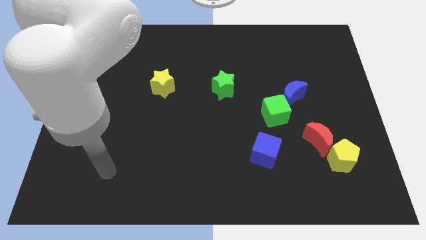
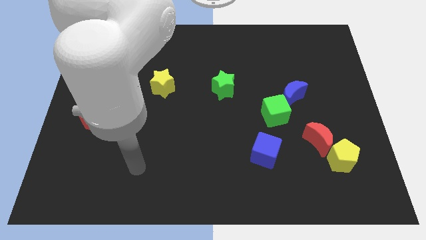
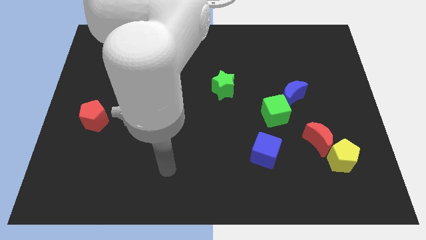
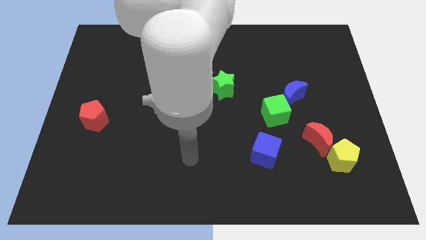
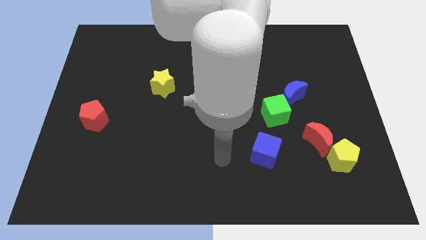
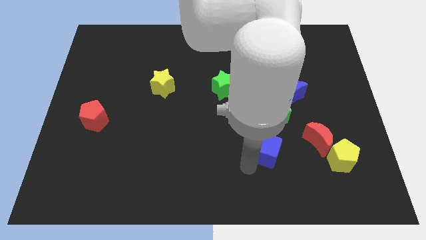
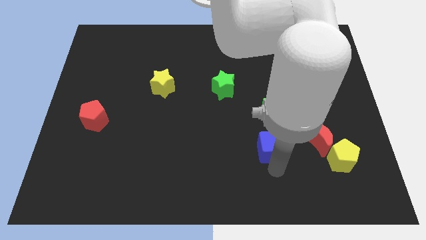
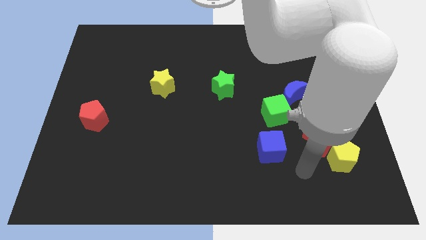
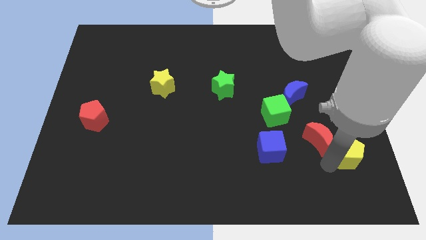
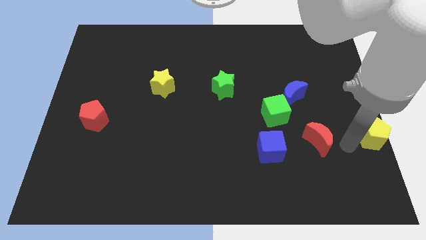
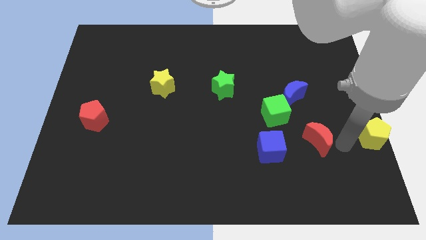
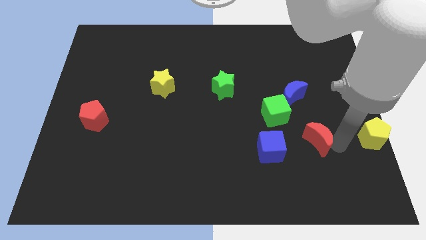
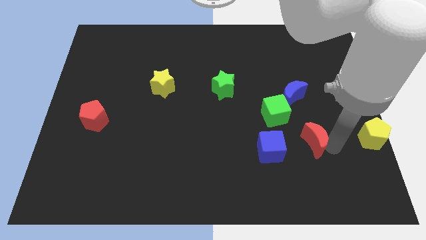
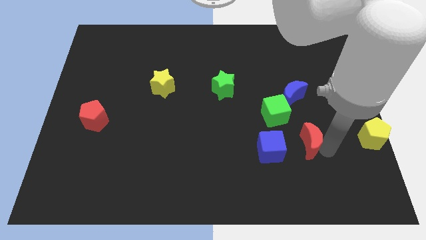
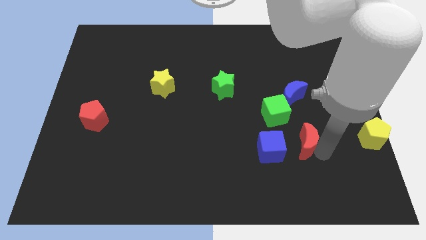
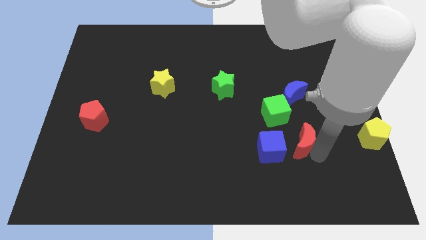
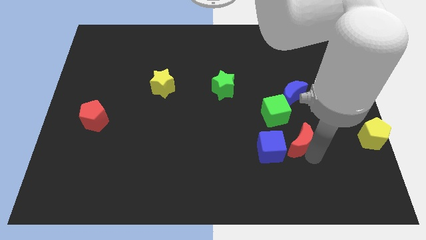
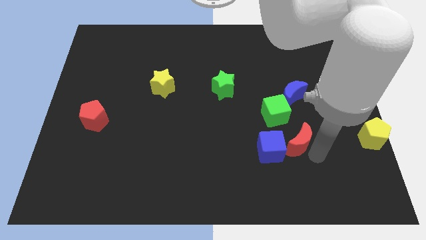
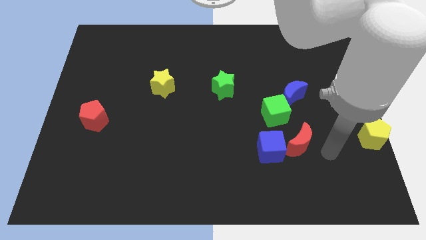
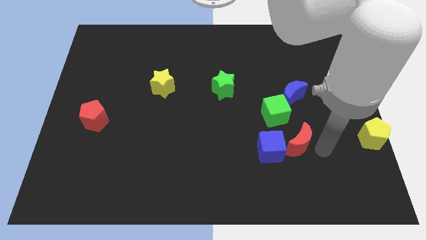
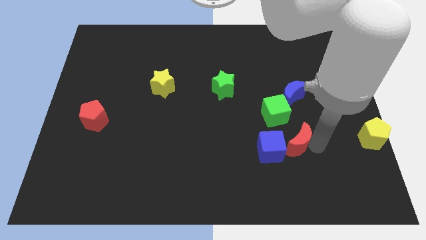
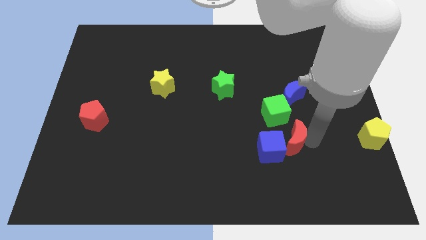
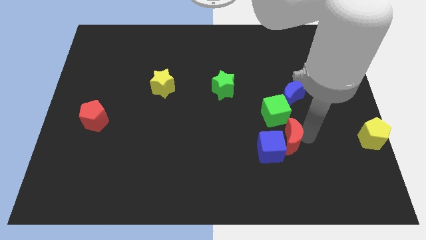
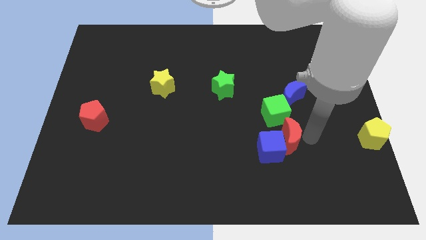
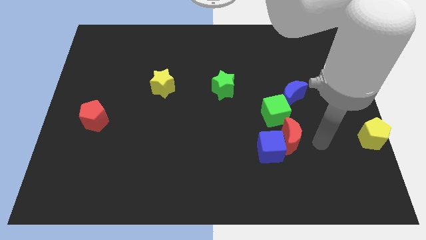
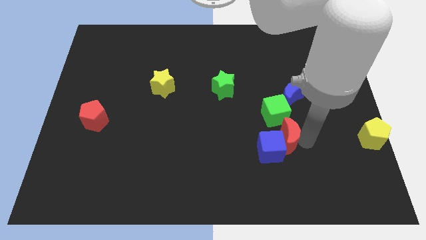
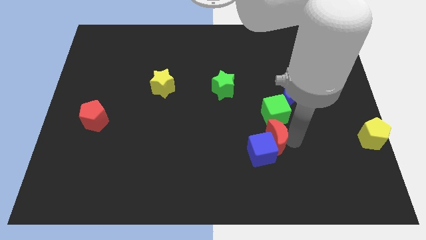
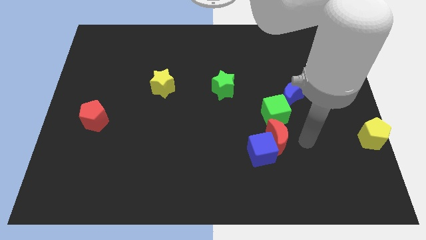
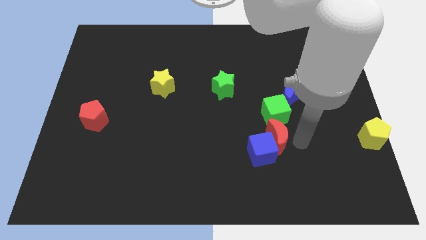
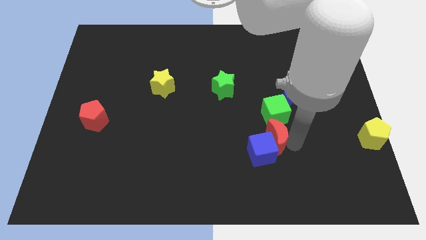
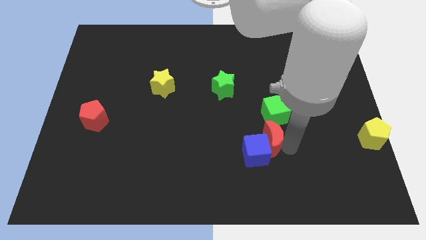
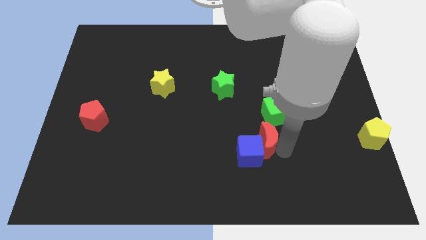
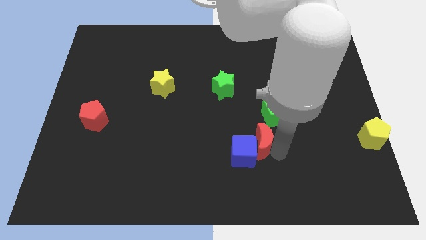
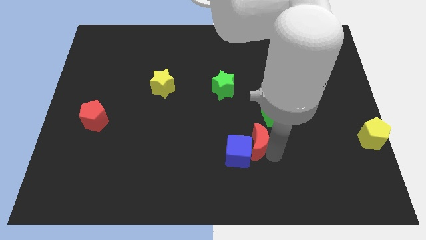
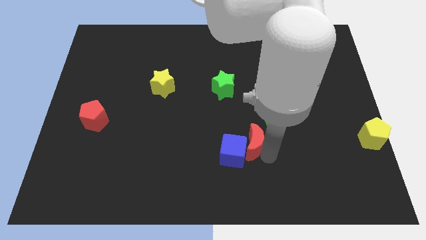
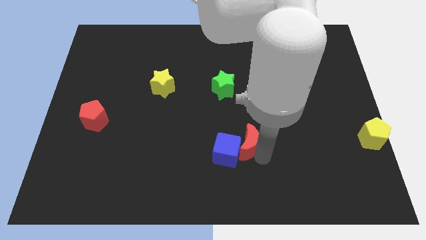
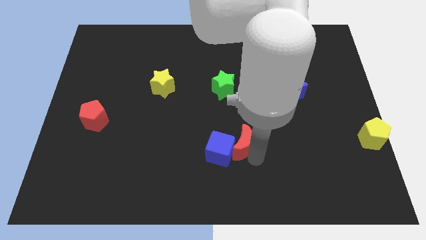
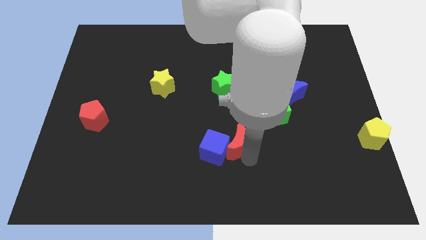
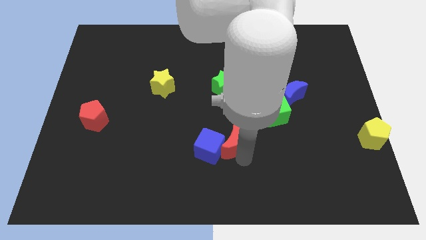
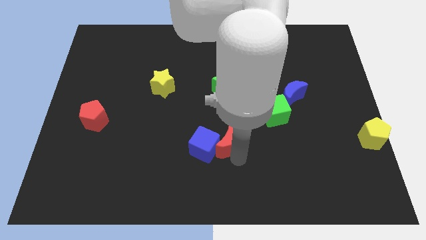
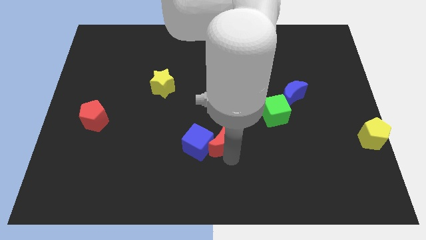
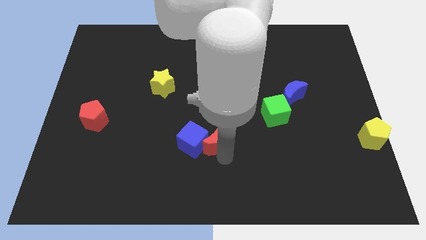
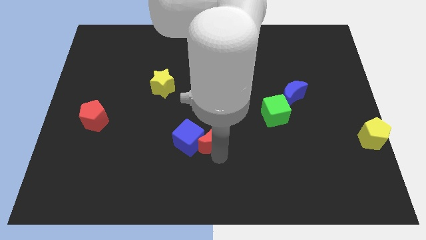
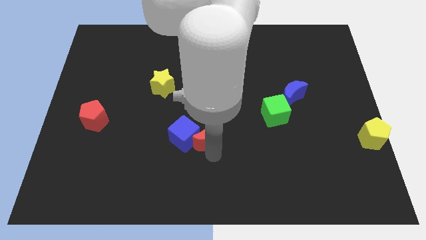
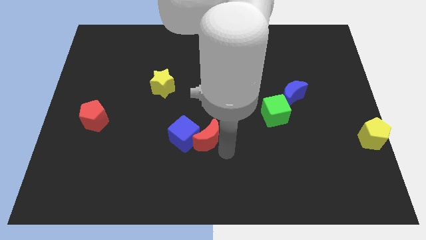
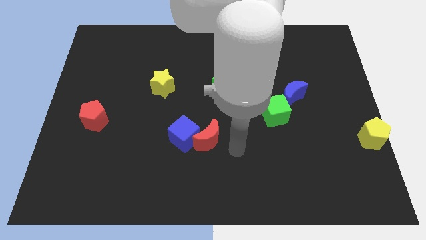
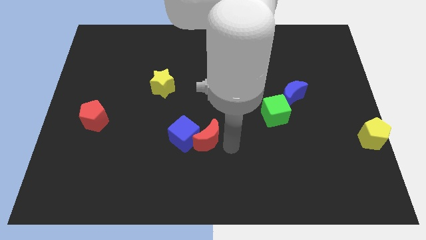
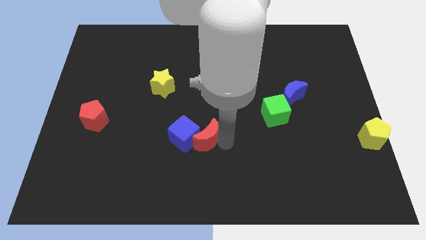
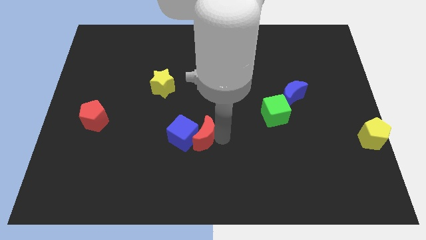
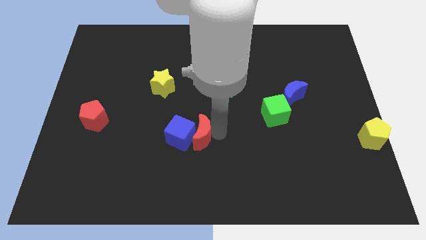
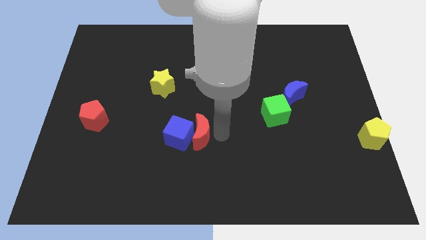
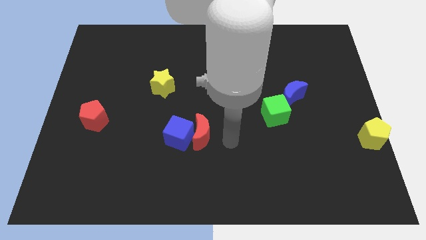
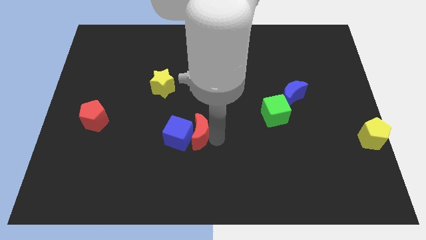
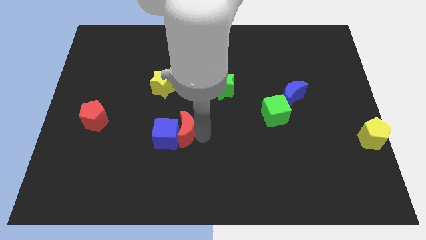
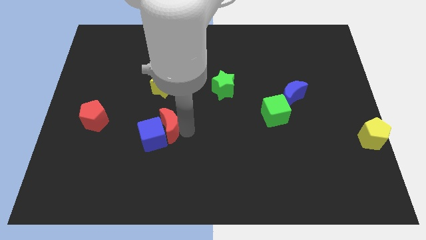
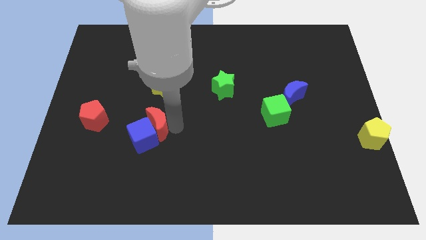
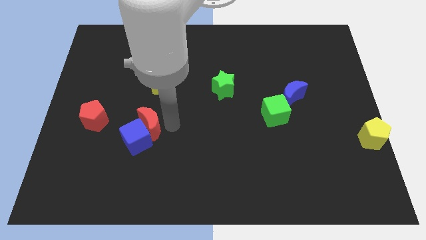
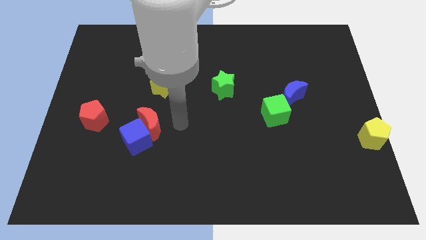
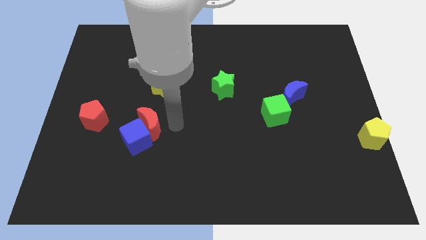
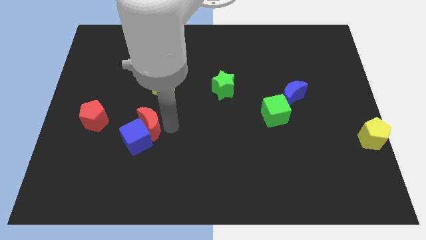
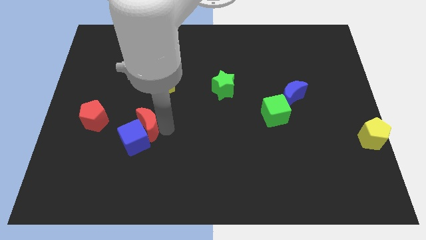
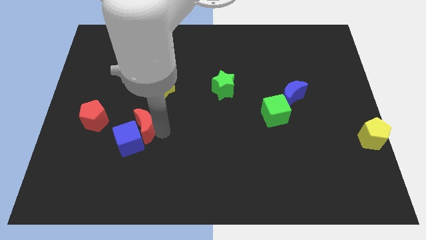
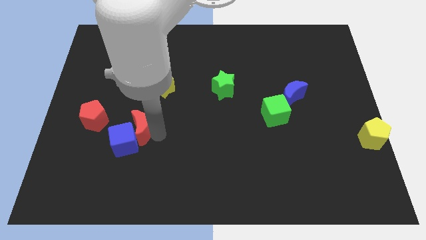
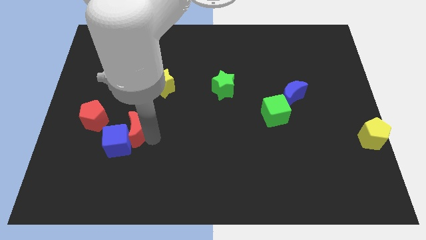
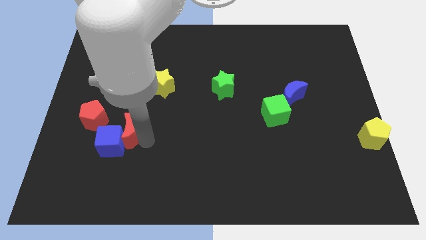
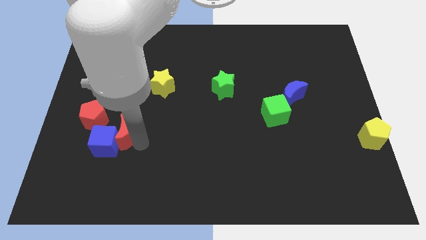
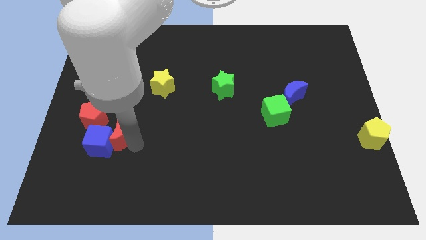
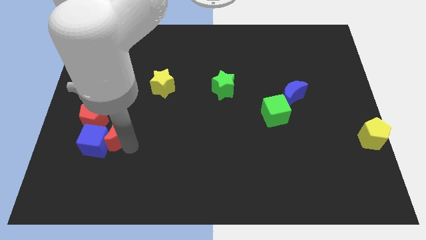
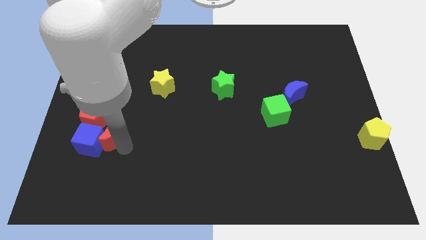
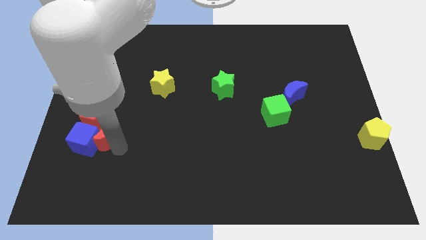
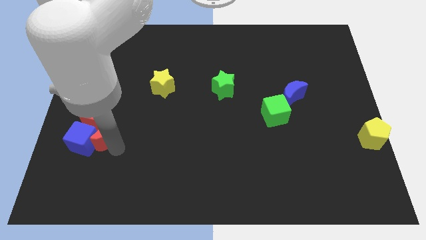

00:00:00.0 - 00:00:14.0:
slide the red moon to the red pentagon
